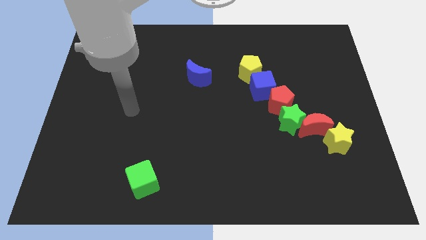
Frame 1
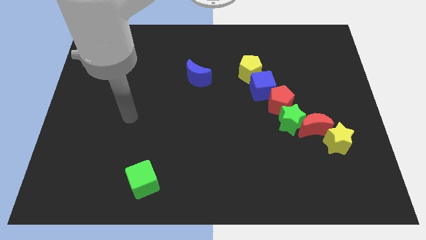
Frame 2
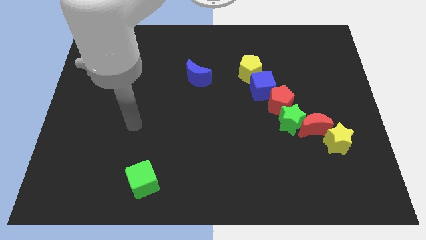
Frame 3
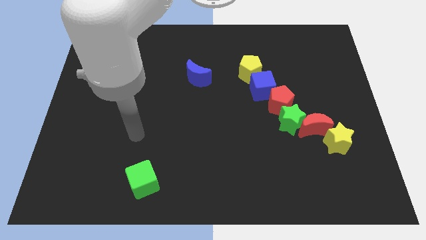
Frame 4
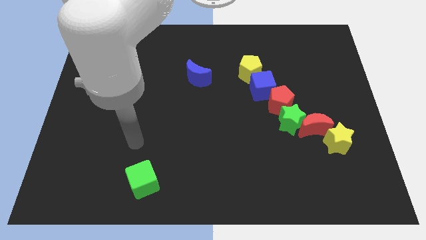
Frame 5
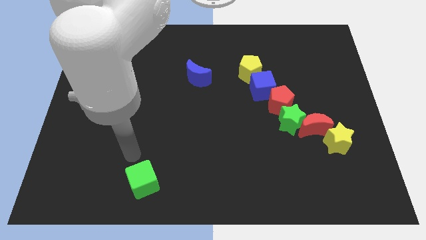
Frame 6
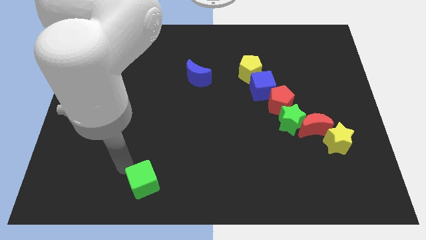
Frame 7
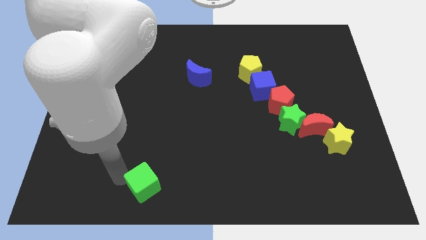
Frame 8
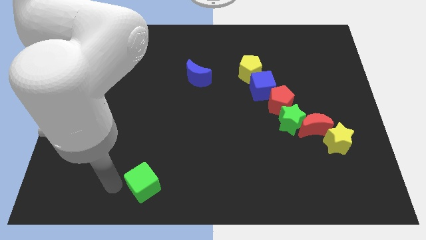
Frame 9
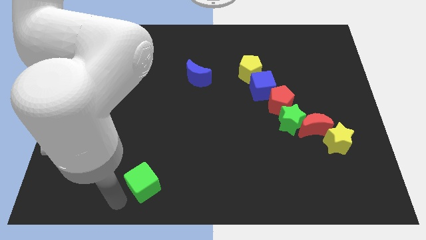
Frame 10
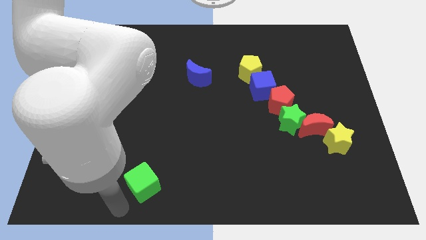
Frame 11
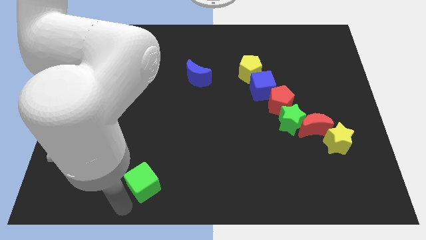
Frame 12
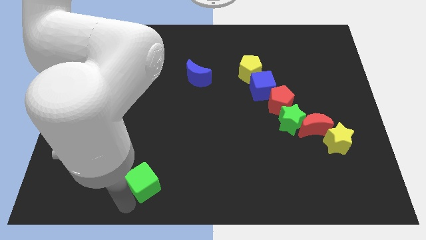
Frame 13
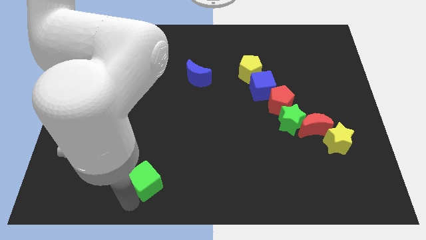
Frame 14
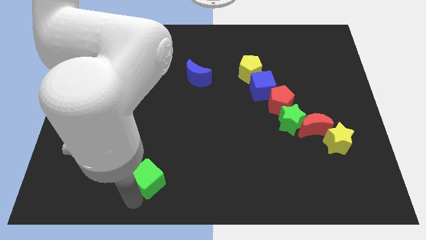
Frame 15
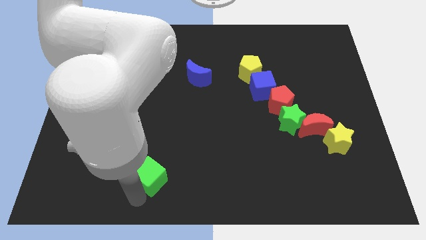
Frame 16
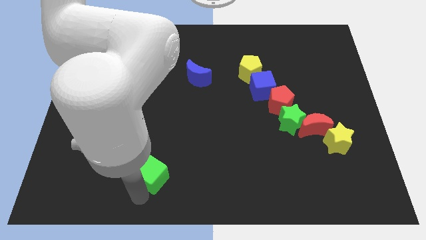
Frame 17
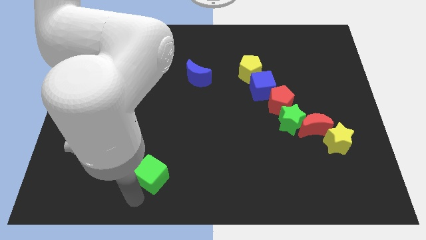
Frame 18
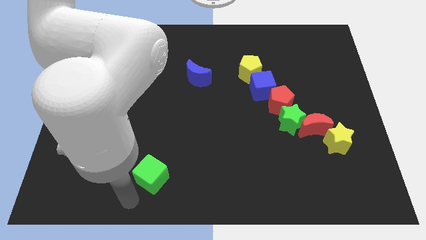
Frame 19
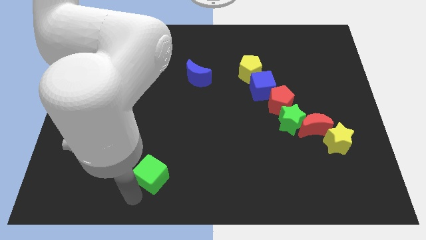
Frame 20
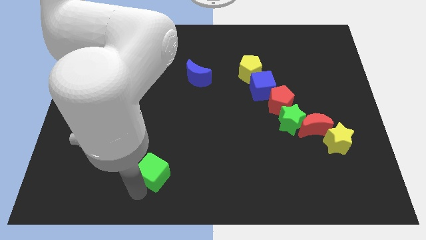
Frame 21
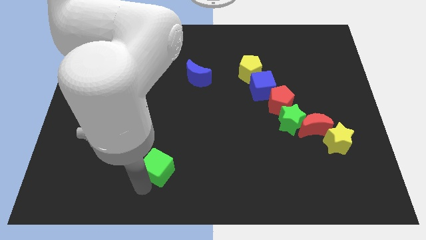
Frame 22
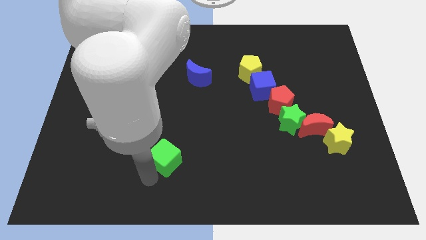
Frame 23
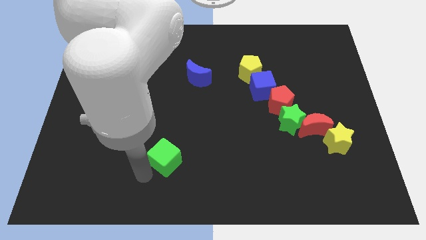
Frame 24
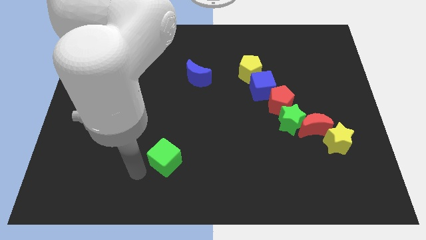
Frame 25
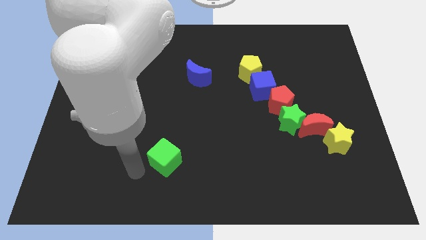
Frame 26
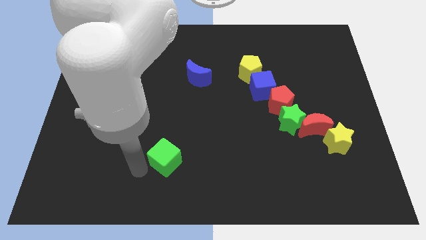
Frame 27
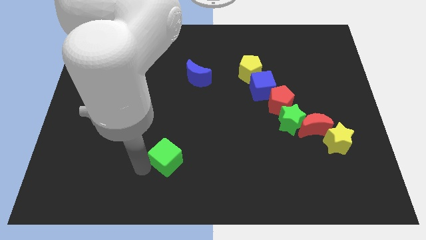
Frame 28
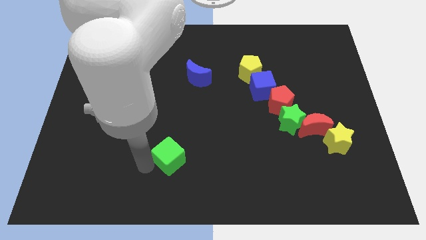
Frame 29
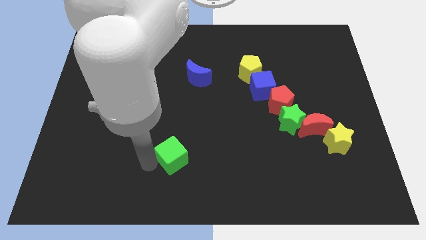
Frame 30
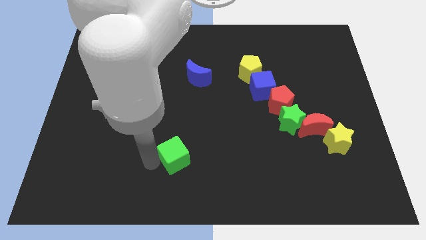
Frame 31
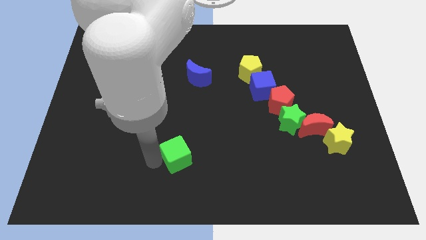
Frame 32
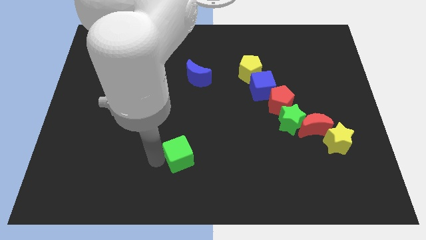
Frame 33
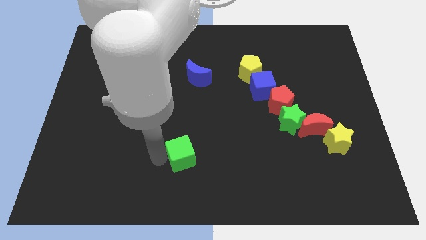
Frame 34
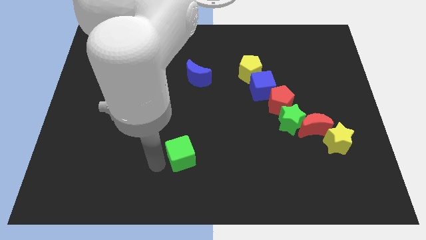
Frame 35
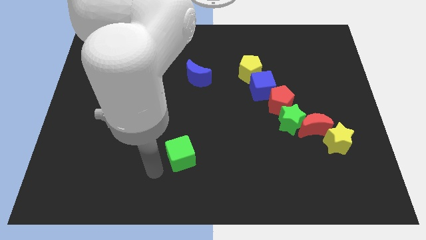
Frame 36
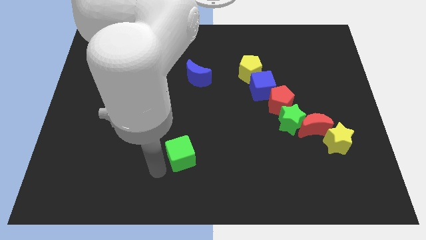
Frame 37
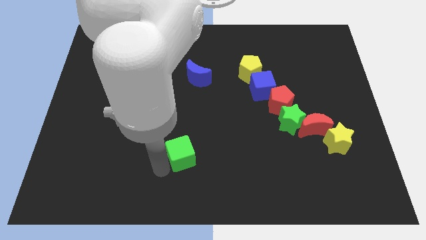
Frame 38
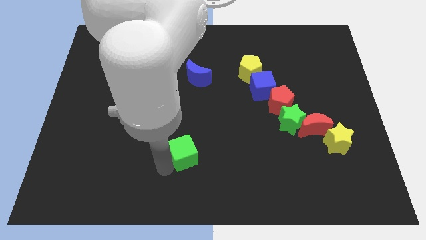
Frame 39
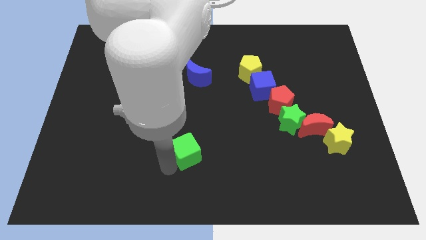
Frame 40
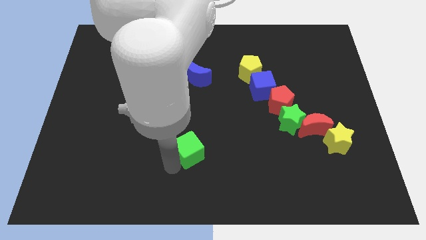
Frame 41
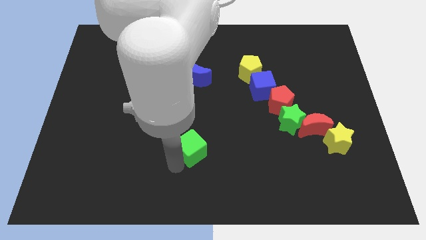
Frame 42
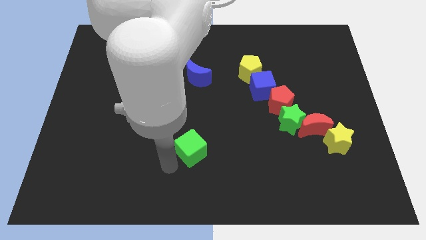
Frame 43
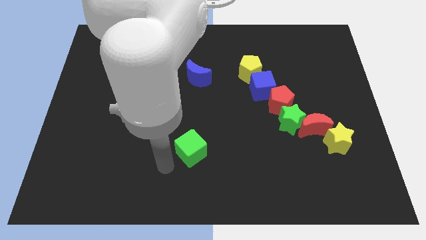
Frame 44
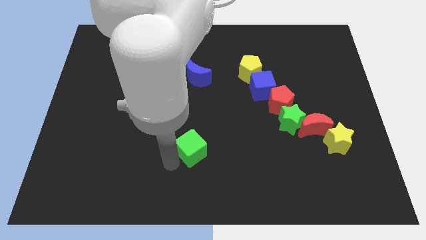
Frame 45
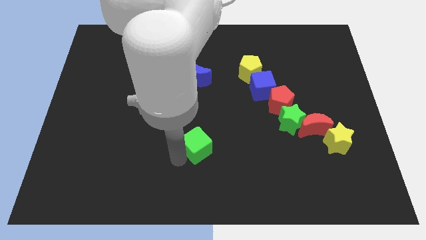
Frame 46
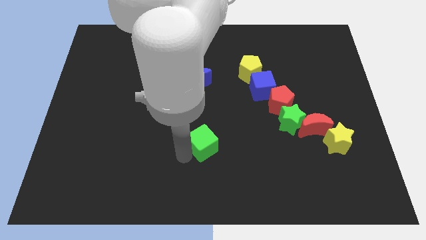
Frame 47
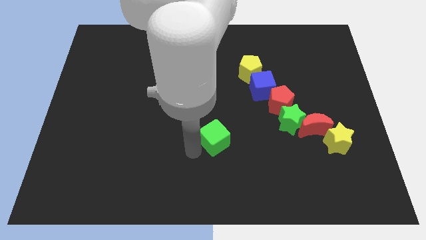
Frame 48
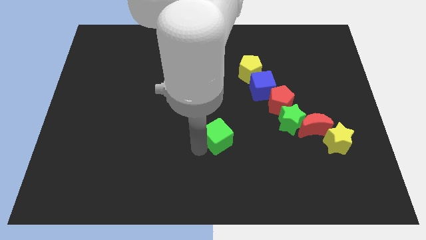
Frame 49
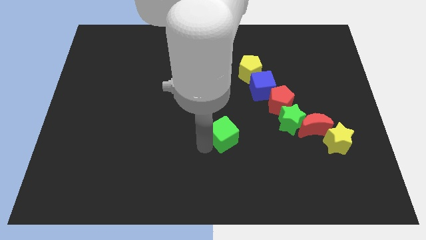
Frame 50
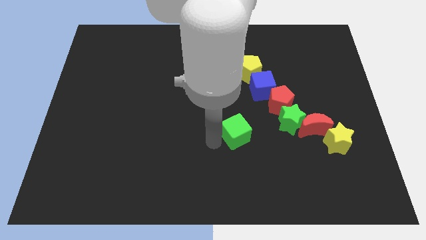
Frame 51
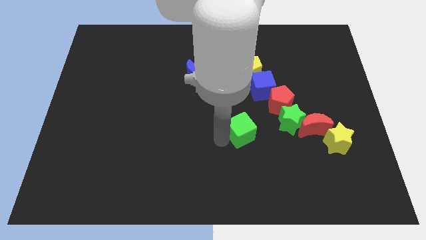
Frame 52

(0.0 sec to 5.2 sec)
push the green cube to the bottom left side of the red pentagon

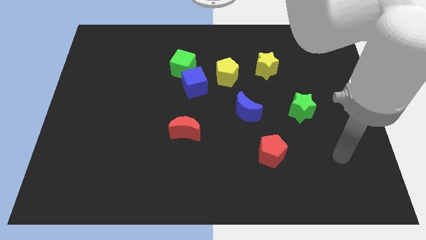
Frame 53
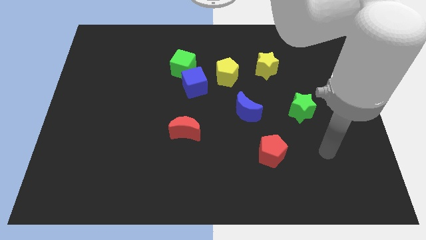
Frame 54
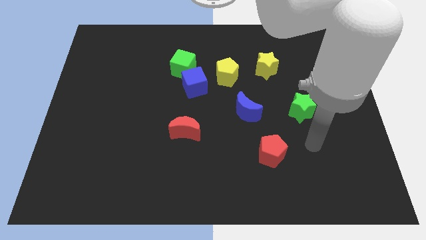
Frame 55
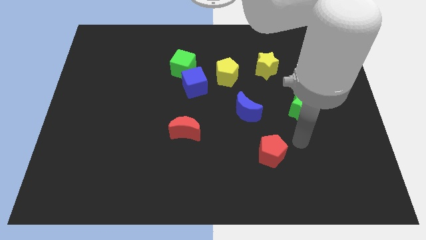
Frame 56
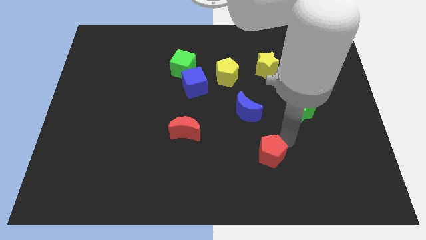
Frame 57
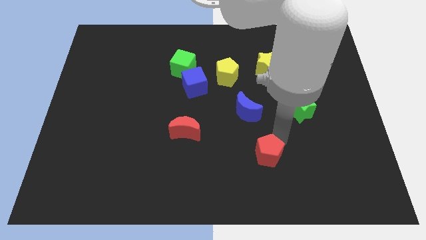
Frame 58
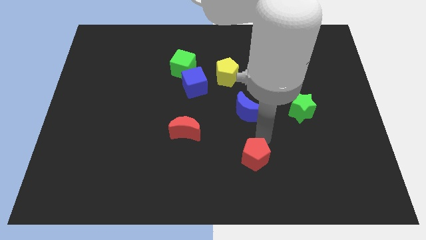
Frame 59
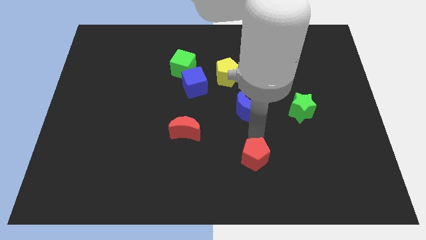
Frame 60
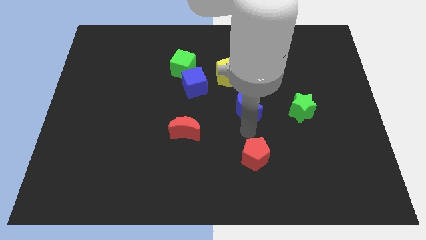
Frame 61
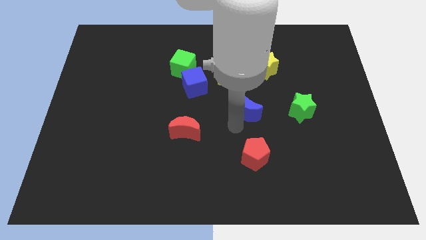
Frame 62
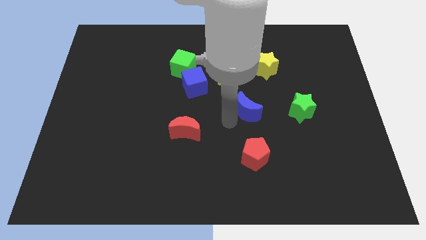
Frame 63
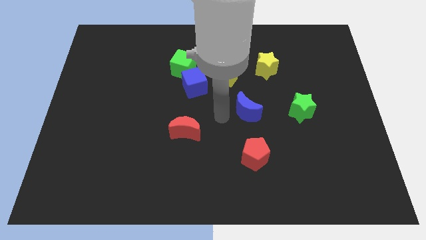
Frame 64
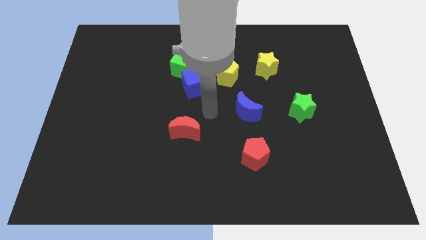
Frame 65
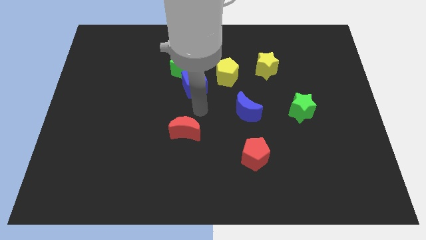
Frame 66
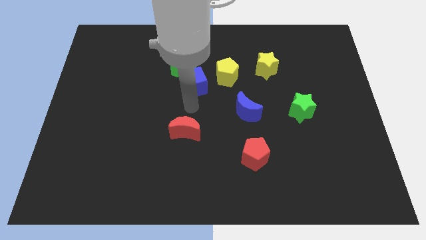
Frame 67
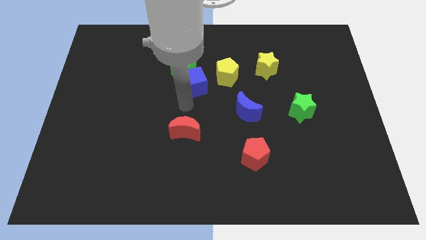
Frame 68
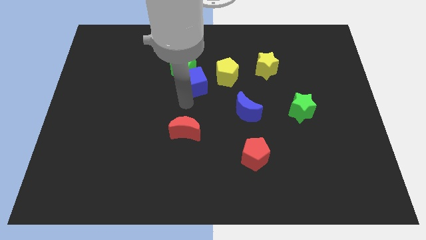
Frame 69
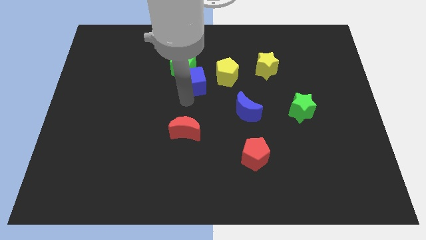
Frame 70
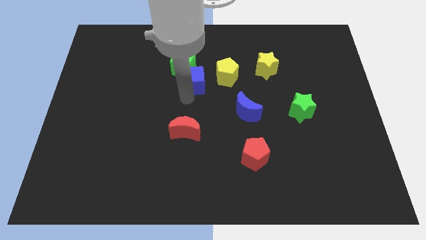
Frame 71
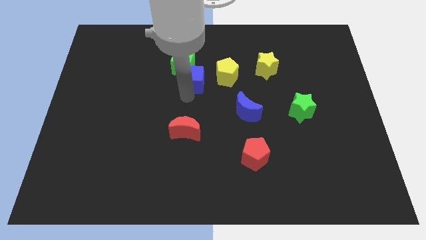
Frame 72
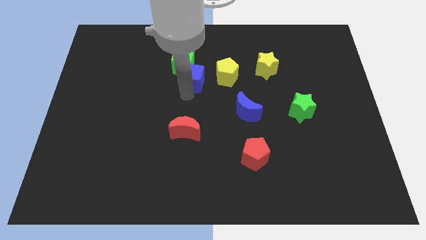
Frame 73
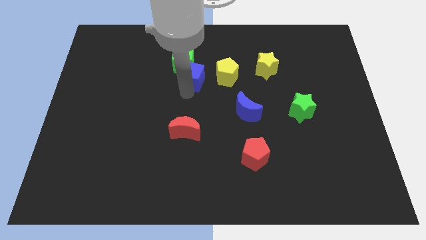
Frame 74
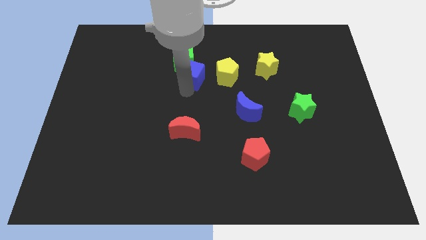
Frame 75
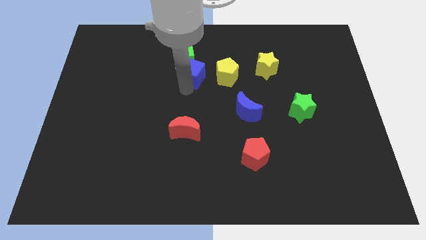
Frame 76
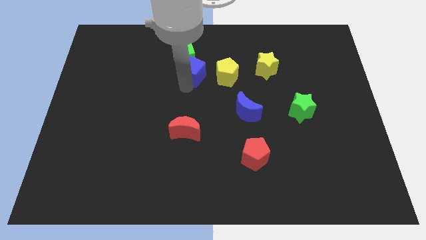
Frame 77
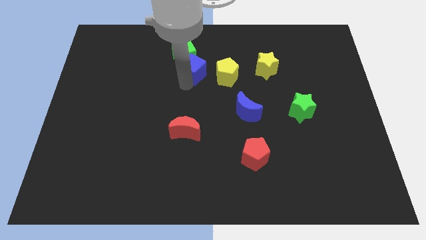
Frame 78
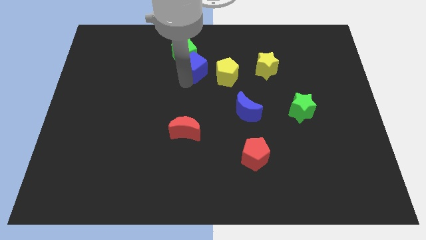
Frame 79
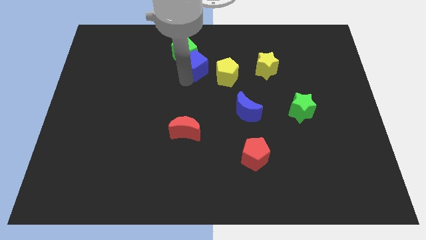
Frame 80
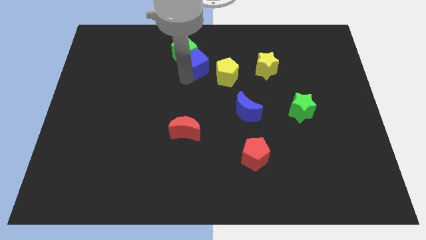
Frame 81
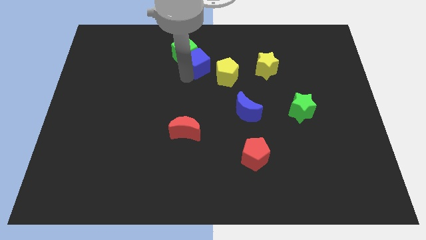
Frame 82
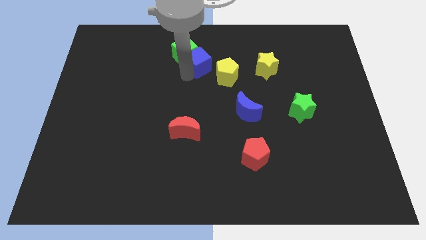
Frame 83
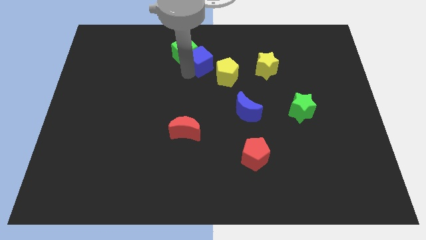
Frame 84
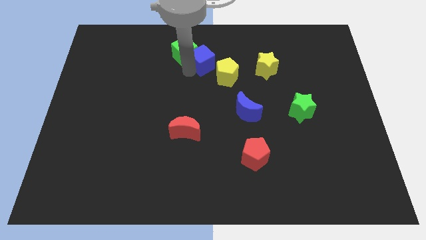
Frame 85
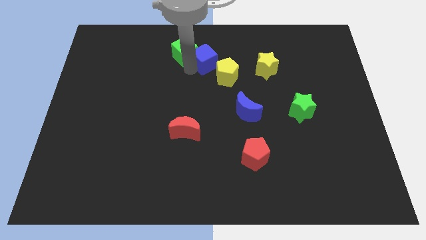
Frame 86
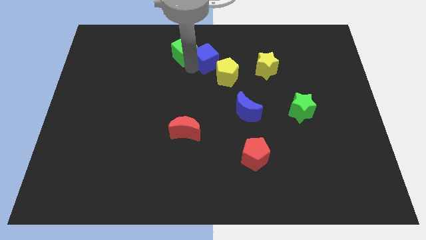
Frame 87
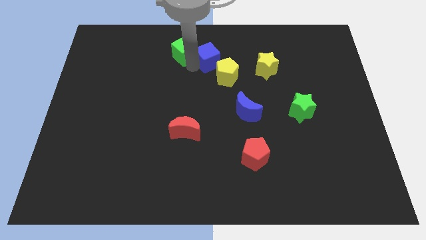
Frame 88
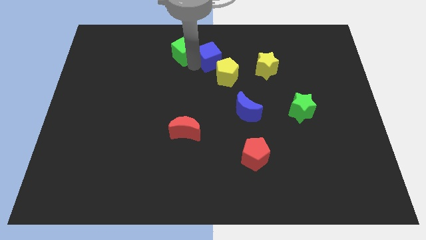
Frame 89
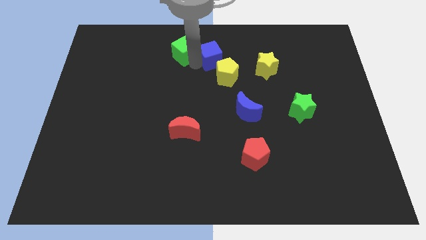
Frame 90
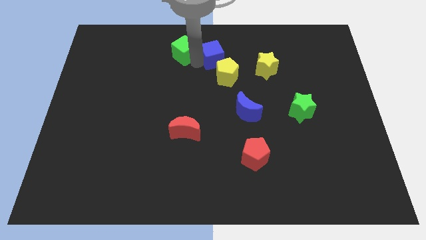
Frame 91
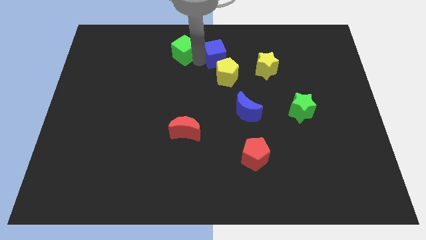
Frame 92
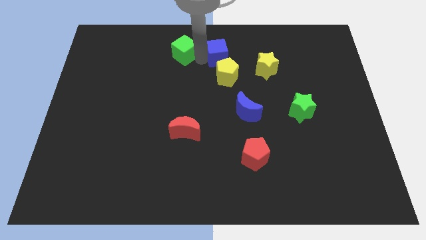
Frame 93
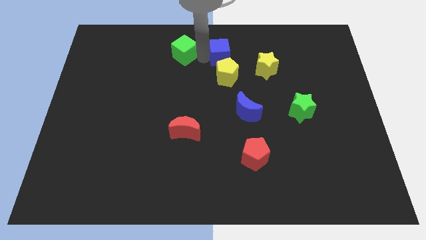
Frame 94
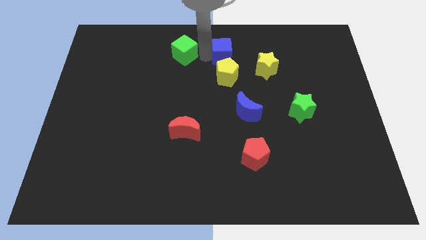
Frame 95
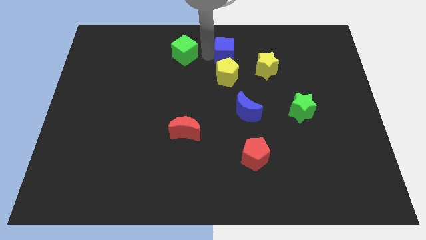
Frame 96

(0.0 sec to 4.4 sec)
push the blue cube diagonally up and to the left of the yellow star
